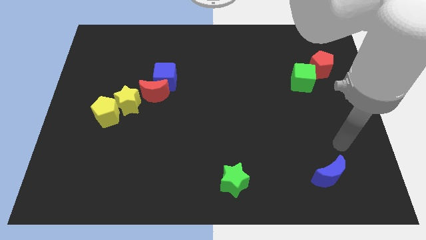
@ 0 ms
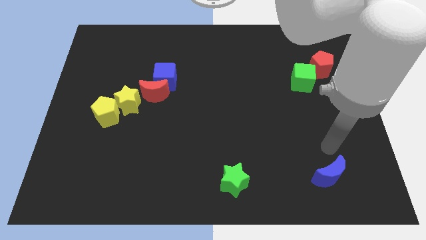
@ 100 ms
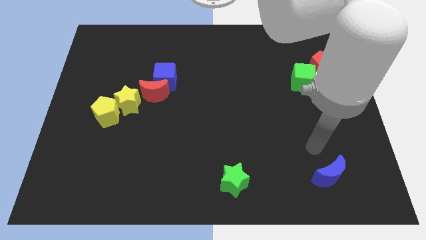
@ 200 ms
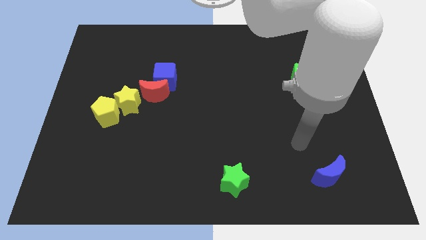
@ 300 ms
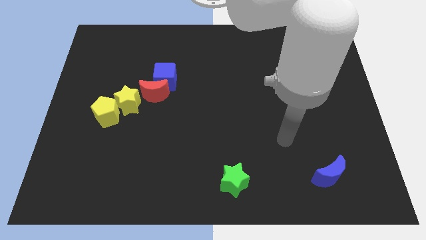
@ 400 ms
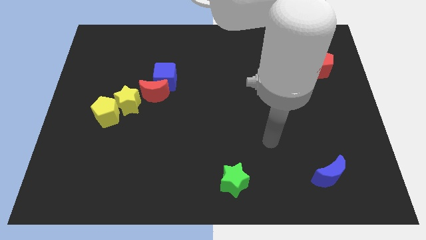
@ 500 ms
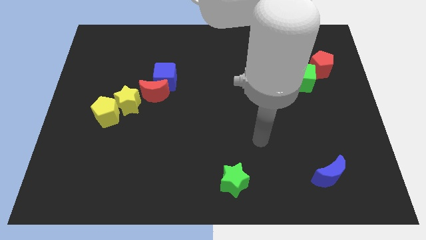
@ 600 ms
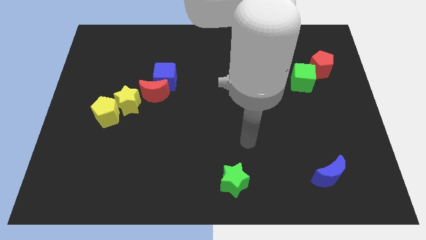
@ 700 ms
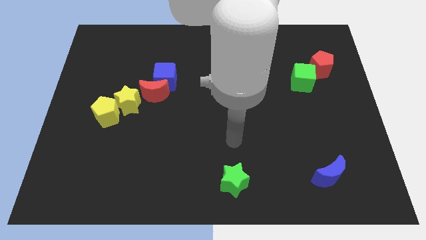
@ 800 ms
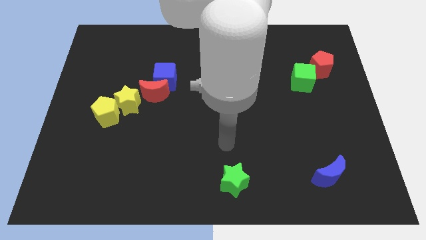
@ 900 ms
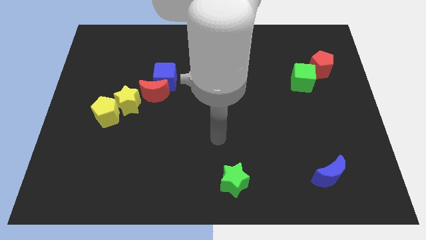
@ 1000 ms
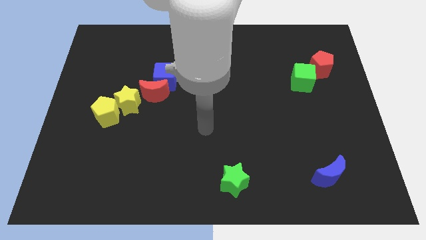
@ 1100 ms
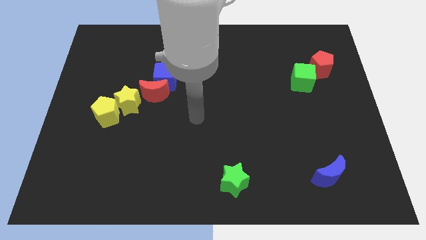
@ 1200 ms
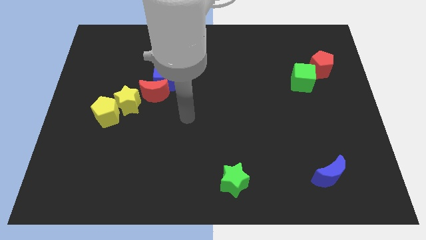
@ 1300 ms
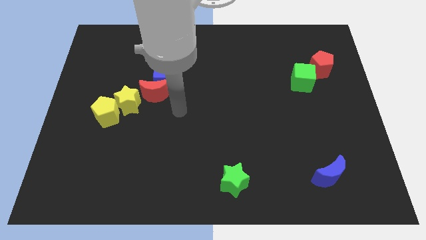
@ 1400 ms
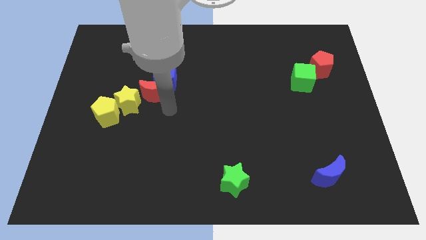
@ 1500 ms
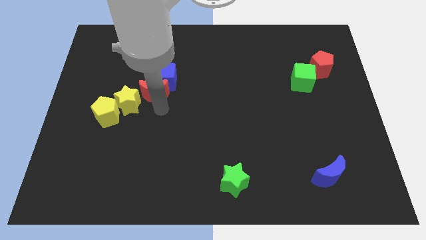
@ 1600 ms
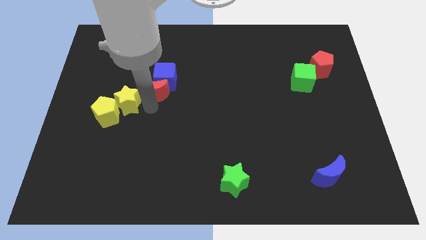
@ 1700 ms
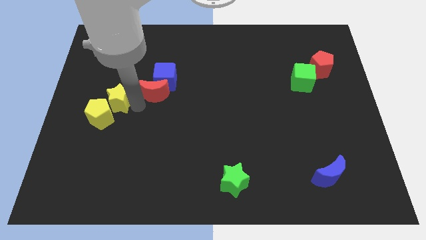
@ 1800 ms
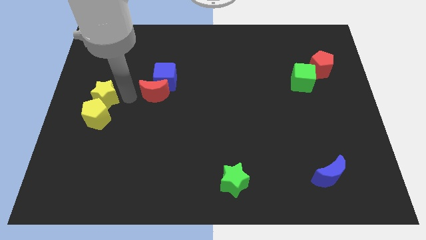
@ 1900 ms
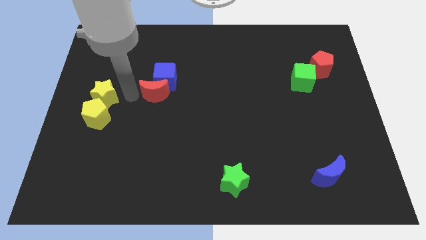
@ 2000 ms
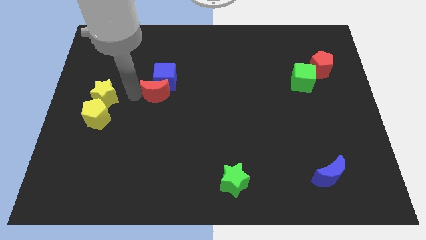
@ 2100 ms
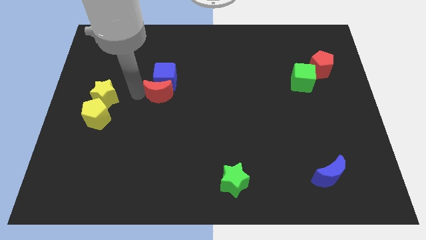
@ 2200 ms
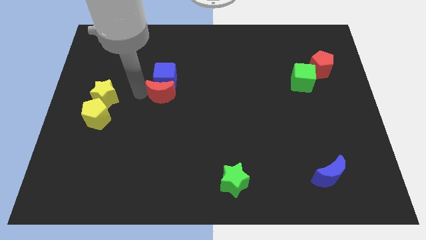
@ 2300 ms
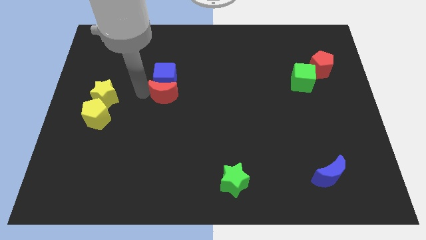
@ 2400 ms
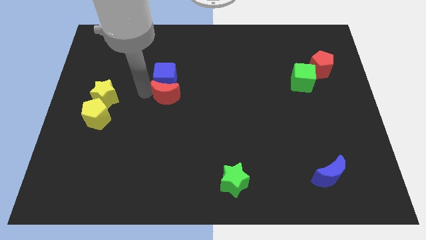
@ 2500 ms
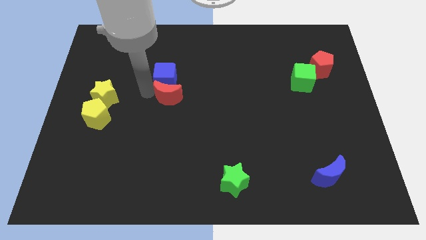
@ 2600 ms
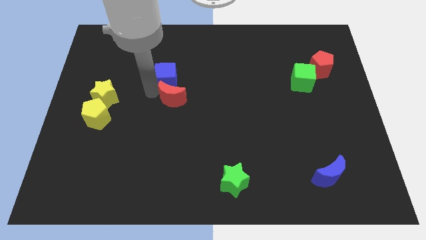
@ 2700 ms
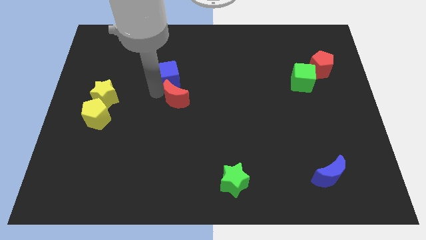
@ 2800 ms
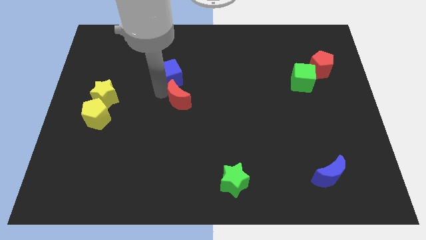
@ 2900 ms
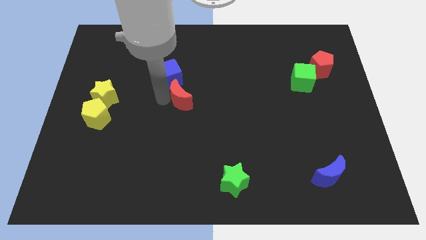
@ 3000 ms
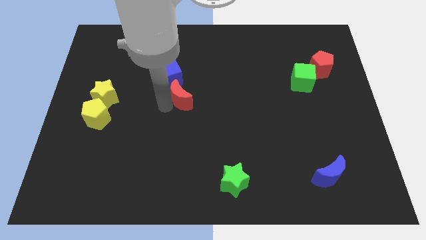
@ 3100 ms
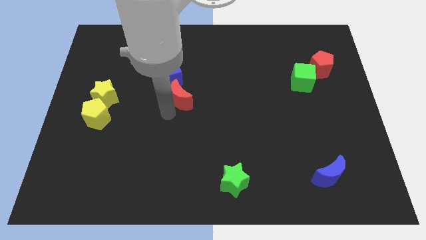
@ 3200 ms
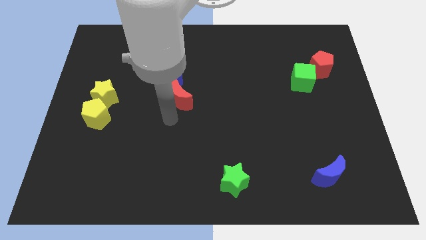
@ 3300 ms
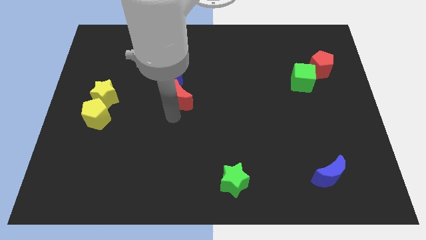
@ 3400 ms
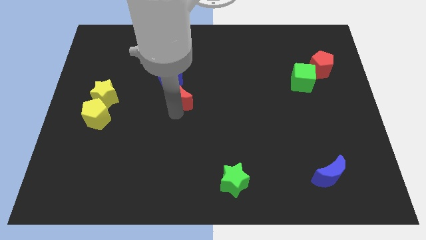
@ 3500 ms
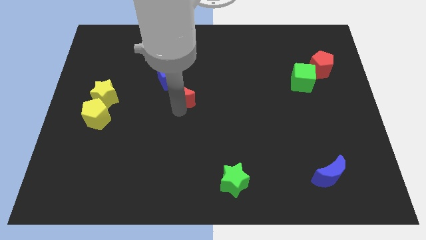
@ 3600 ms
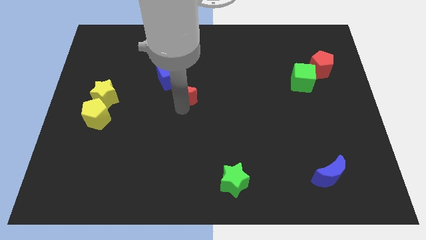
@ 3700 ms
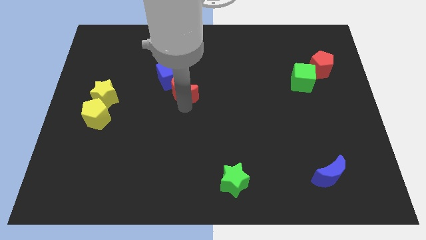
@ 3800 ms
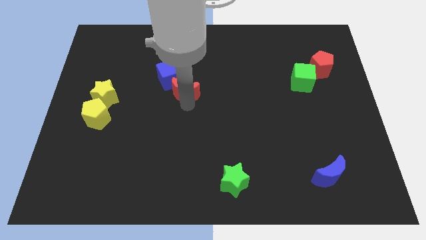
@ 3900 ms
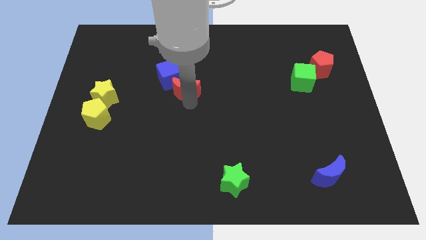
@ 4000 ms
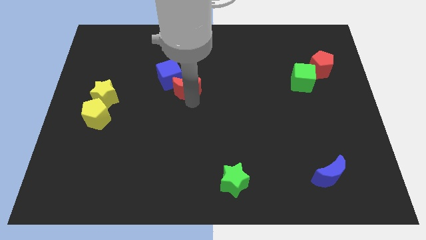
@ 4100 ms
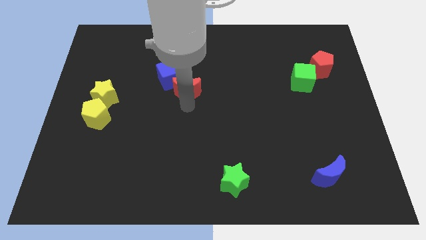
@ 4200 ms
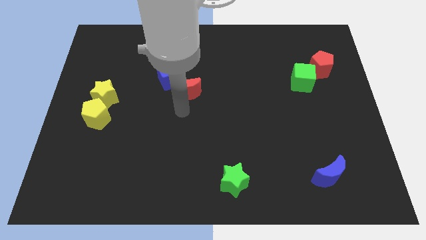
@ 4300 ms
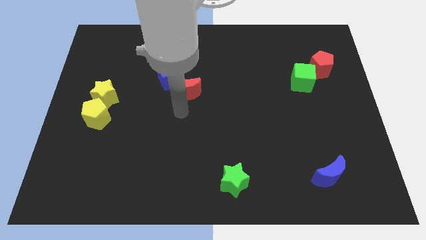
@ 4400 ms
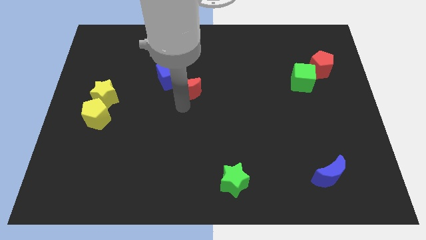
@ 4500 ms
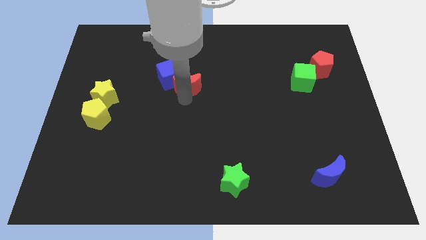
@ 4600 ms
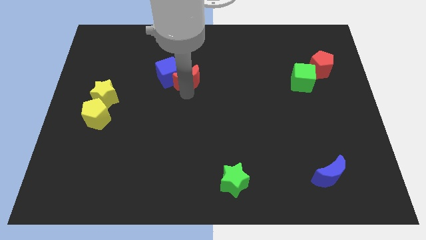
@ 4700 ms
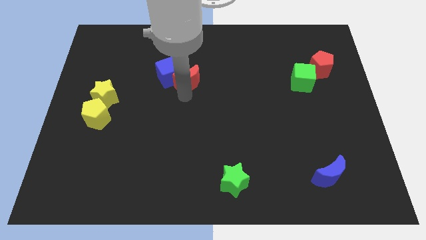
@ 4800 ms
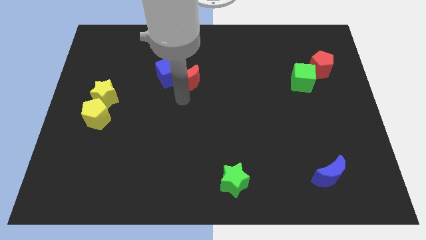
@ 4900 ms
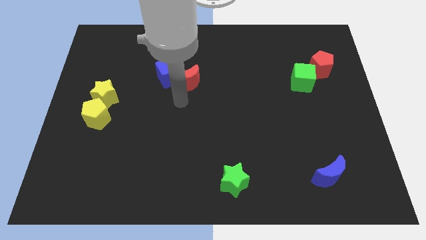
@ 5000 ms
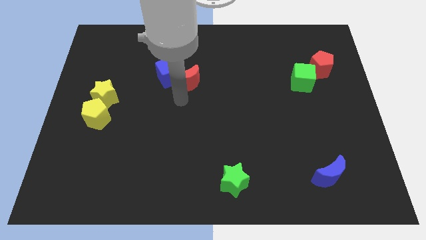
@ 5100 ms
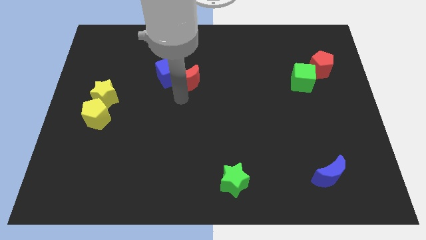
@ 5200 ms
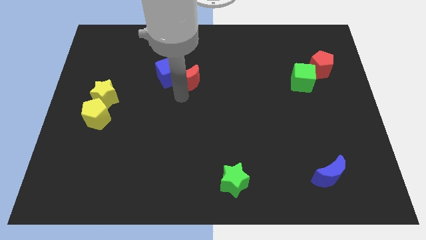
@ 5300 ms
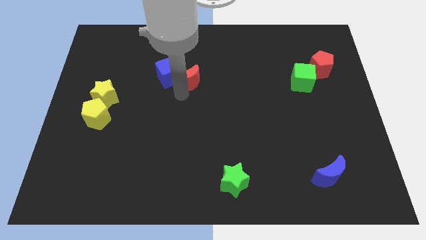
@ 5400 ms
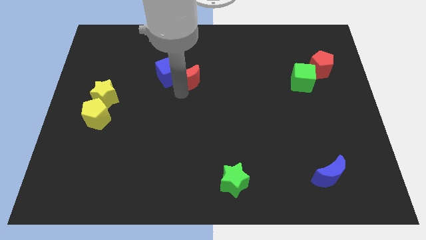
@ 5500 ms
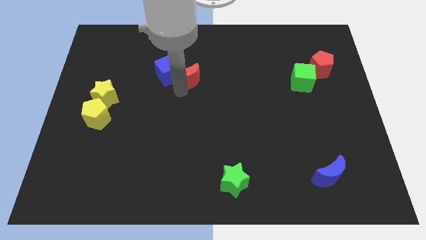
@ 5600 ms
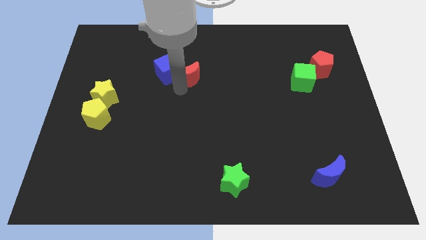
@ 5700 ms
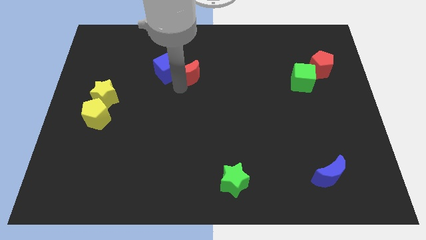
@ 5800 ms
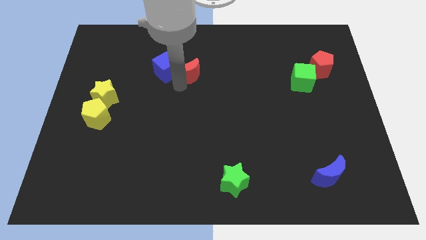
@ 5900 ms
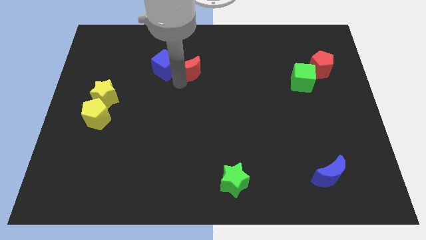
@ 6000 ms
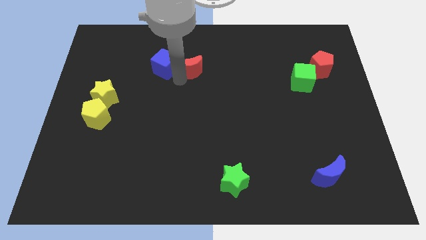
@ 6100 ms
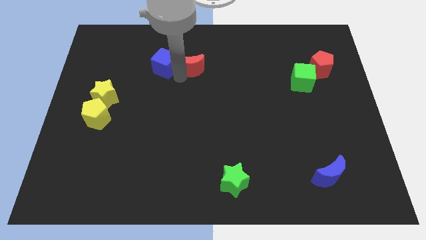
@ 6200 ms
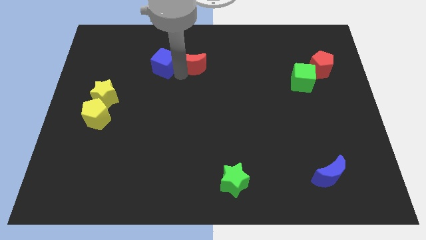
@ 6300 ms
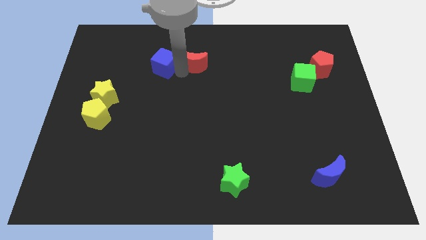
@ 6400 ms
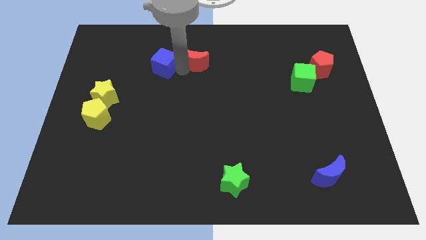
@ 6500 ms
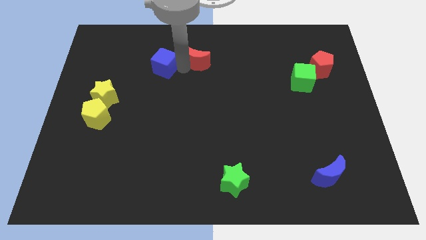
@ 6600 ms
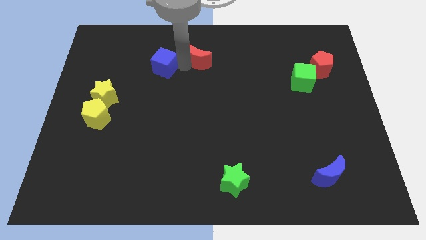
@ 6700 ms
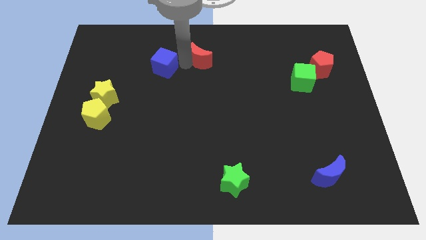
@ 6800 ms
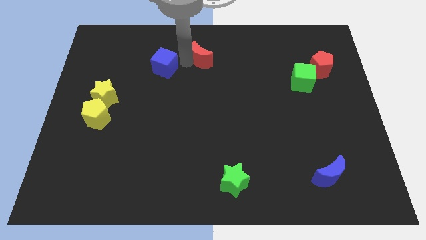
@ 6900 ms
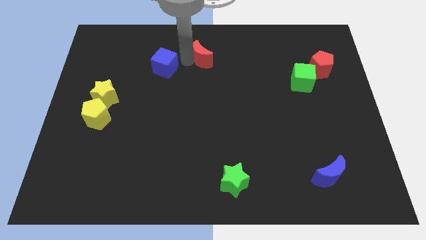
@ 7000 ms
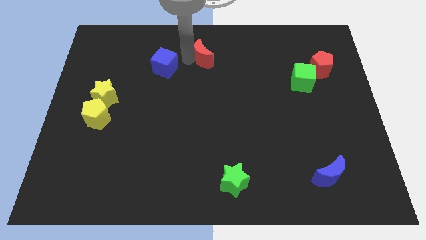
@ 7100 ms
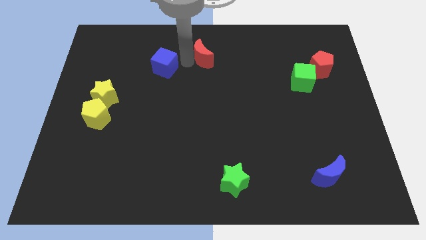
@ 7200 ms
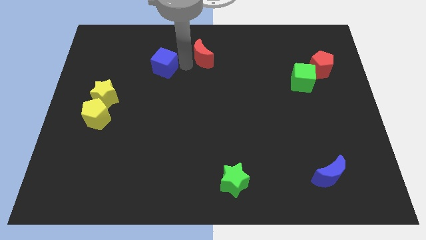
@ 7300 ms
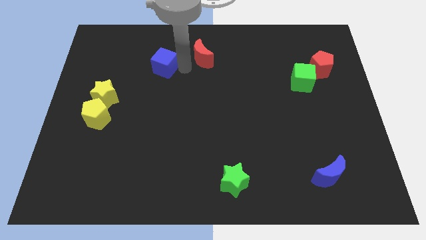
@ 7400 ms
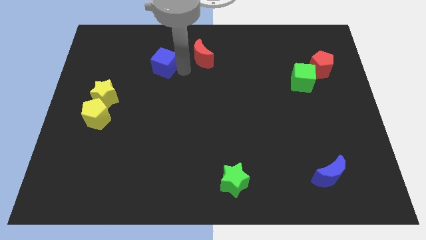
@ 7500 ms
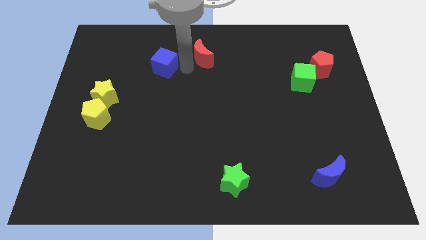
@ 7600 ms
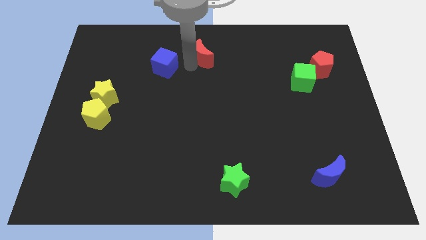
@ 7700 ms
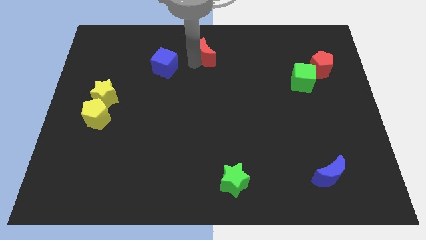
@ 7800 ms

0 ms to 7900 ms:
slide the red moon to the towards your base
